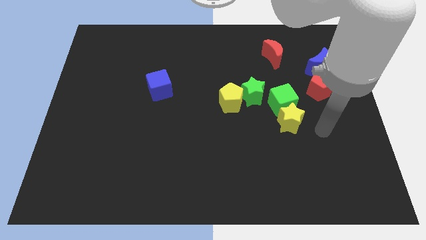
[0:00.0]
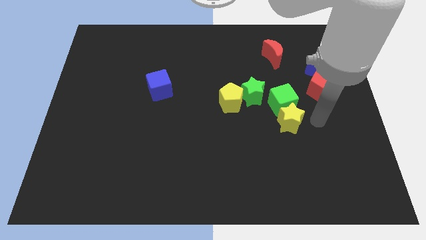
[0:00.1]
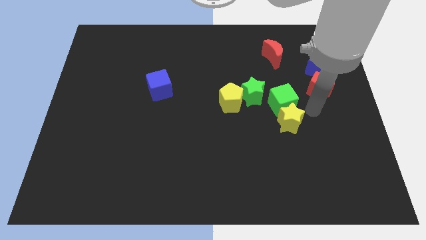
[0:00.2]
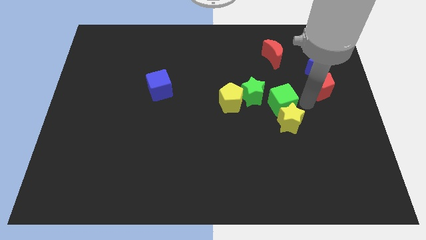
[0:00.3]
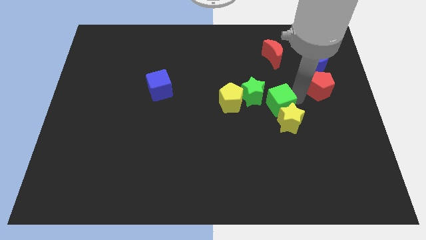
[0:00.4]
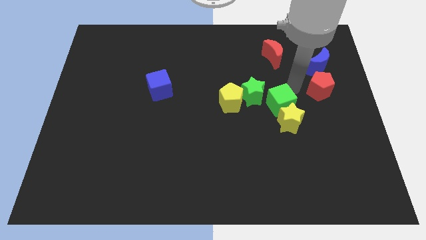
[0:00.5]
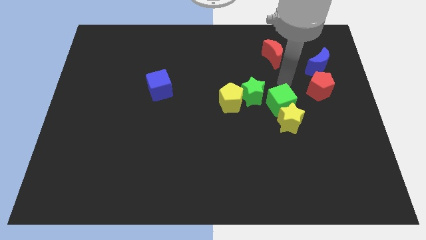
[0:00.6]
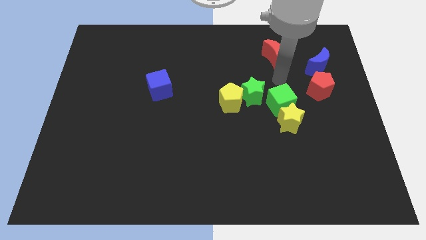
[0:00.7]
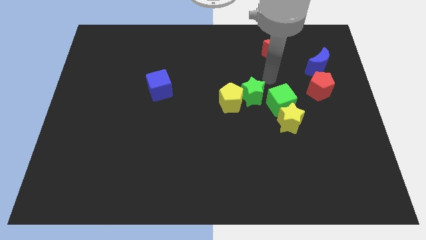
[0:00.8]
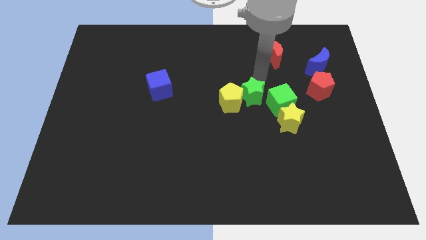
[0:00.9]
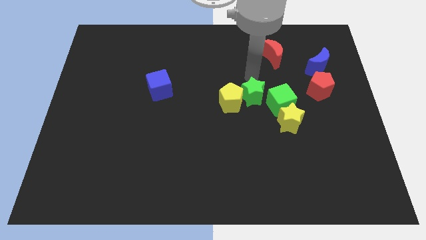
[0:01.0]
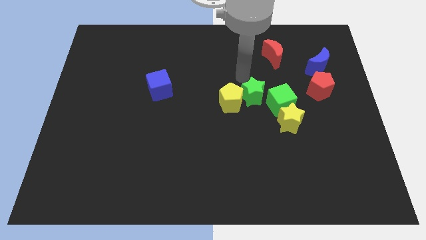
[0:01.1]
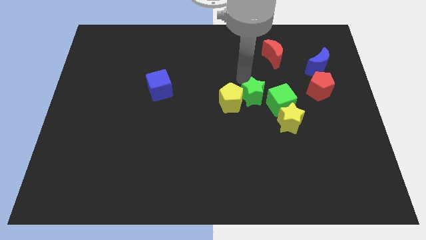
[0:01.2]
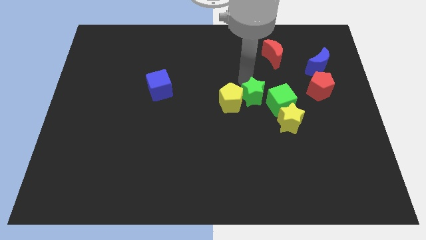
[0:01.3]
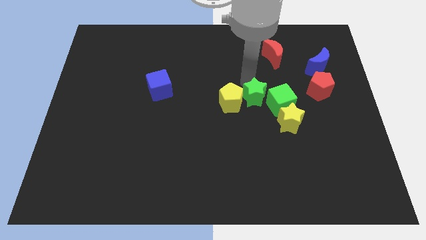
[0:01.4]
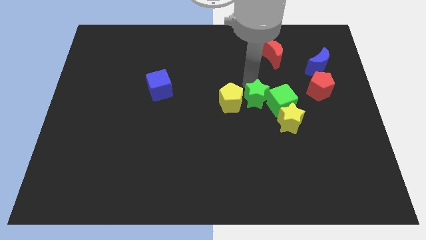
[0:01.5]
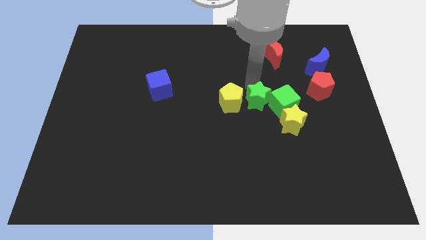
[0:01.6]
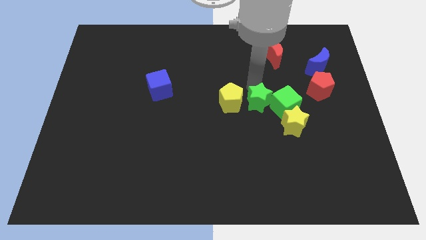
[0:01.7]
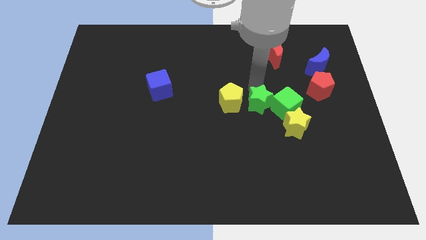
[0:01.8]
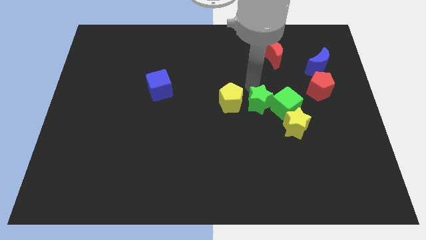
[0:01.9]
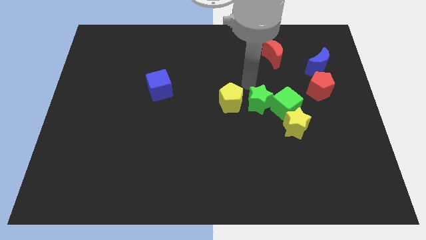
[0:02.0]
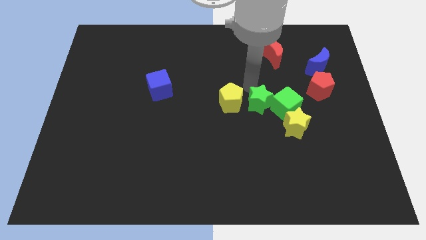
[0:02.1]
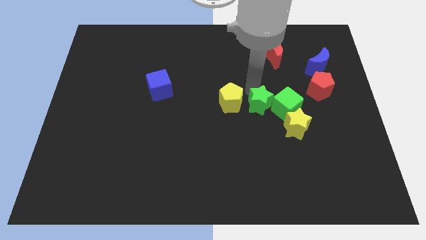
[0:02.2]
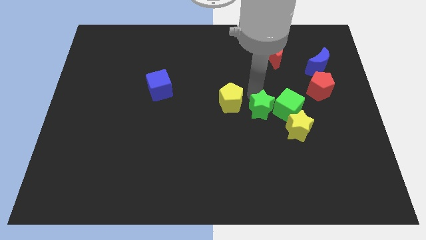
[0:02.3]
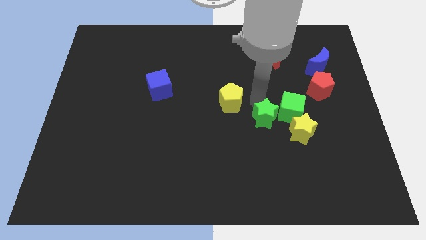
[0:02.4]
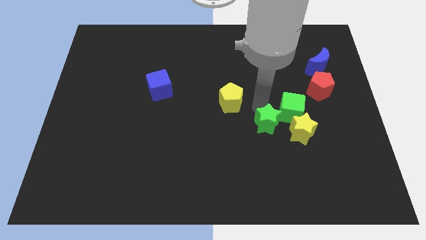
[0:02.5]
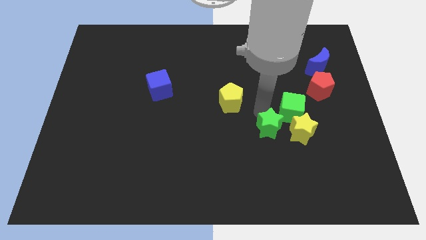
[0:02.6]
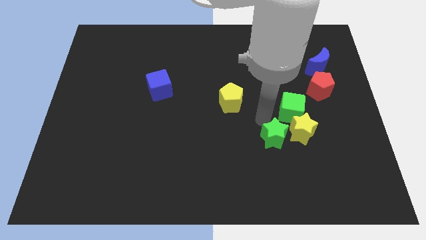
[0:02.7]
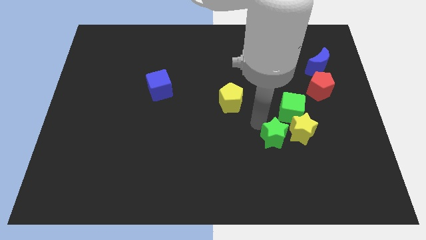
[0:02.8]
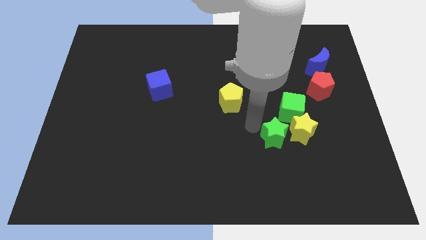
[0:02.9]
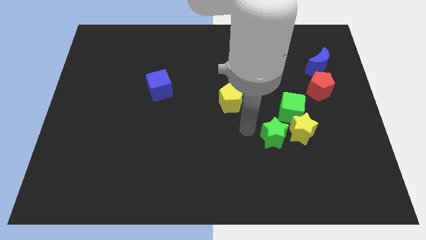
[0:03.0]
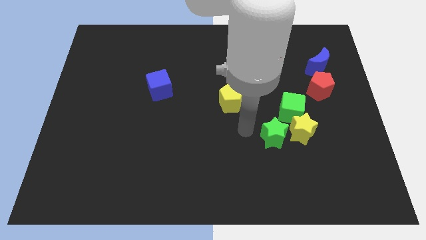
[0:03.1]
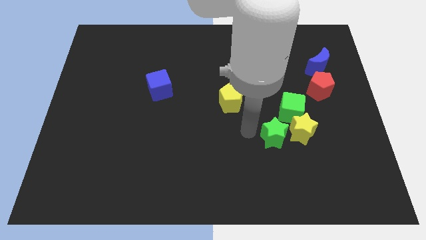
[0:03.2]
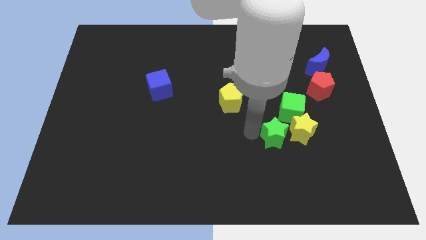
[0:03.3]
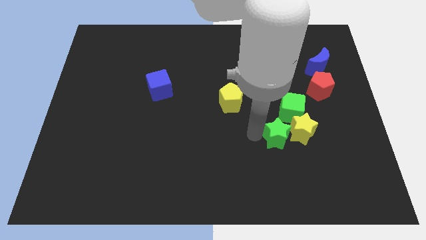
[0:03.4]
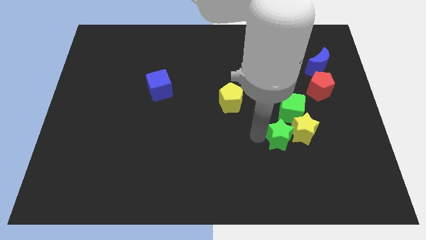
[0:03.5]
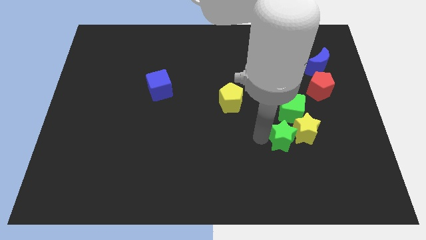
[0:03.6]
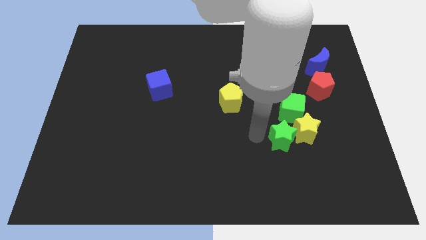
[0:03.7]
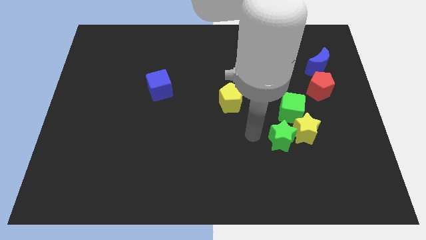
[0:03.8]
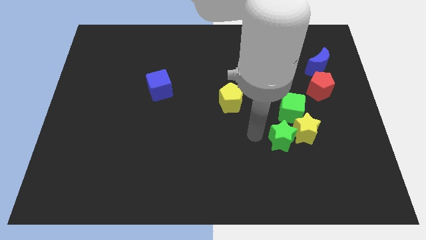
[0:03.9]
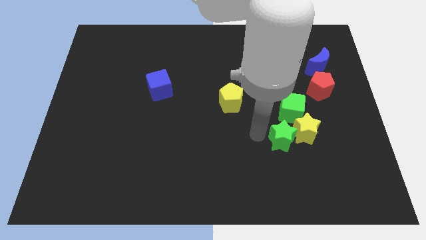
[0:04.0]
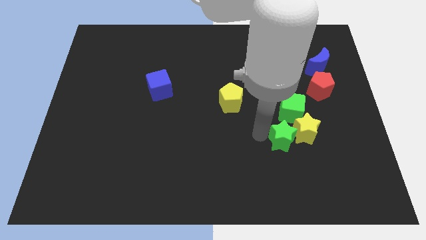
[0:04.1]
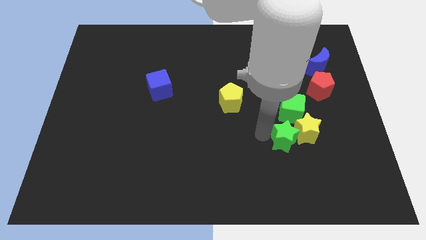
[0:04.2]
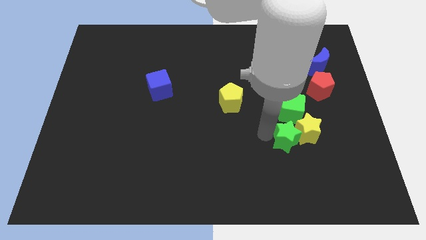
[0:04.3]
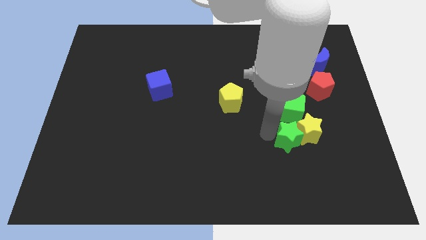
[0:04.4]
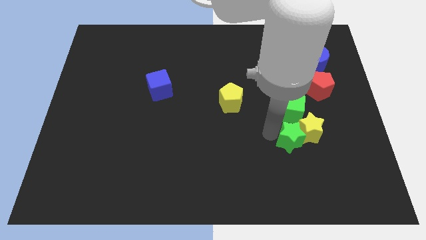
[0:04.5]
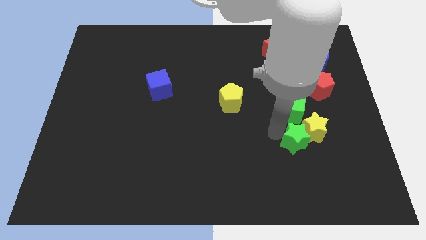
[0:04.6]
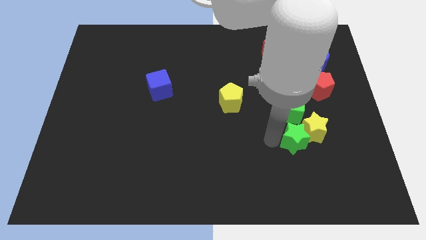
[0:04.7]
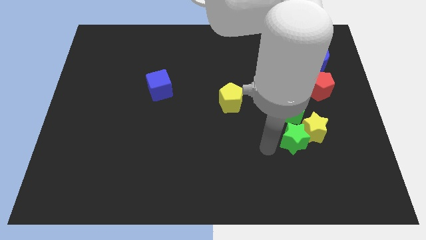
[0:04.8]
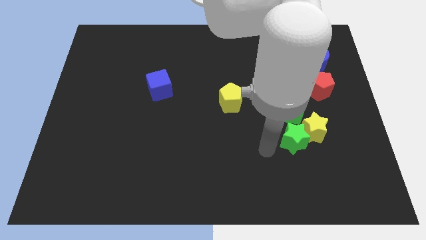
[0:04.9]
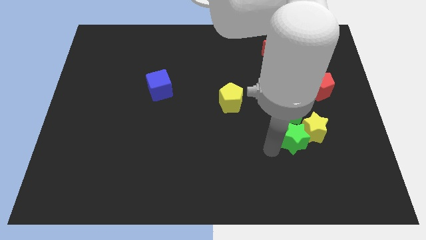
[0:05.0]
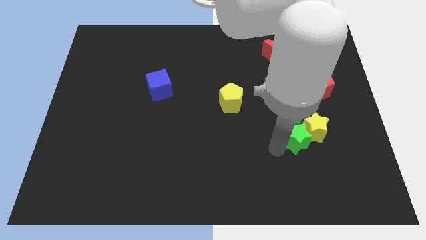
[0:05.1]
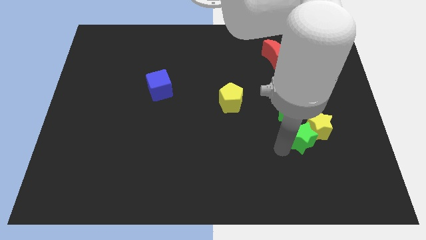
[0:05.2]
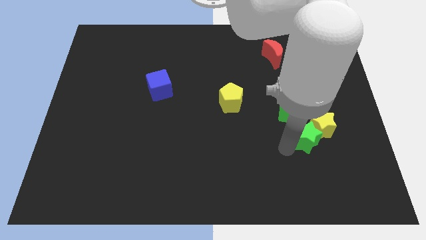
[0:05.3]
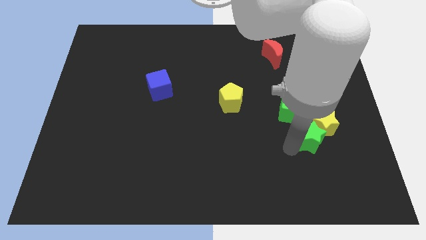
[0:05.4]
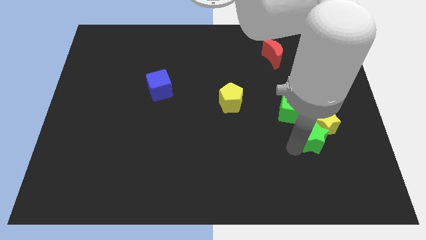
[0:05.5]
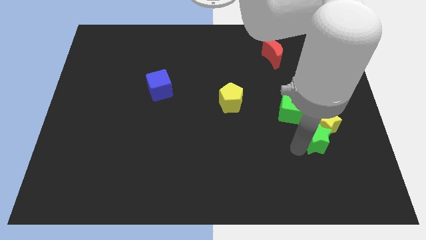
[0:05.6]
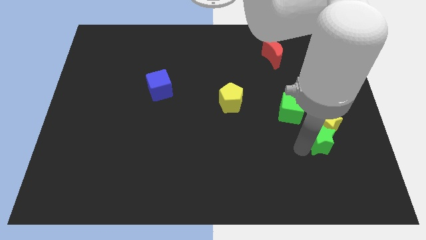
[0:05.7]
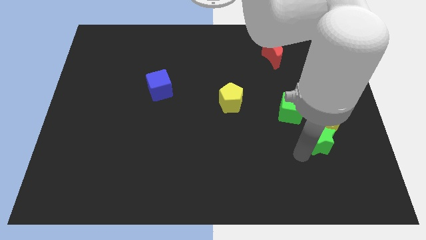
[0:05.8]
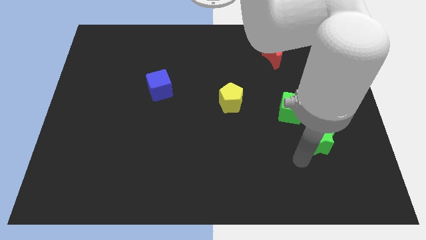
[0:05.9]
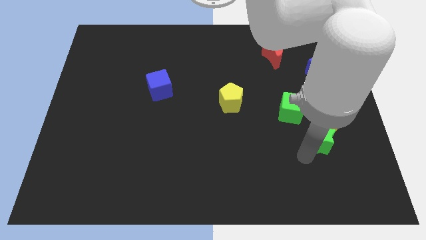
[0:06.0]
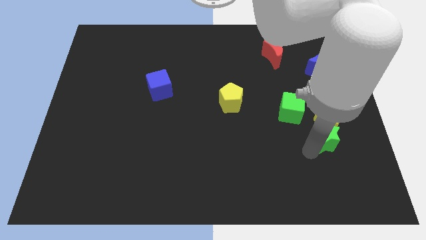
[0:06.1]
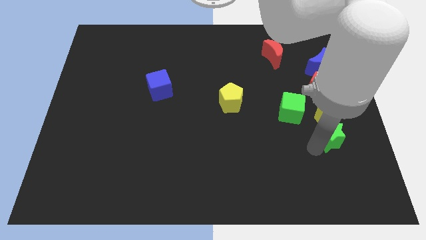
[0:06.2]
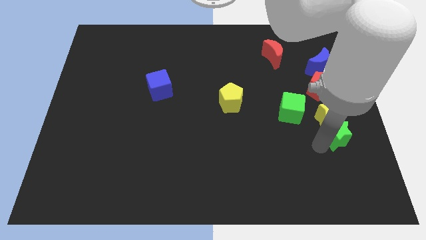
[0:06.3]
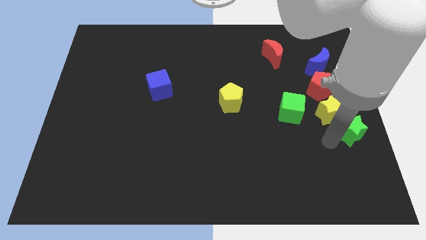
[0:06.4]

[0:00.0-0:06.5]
move the green star to the right side

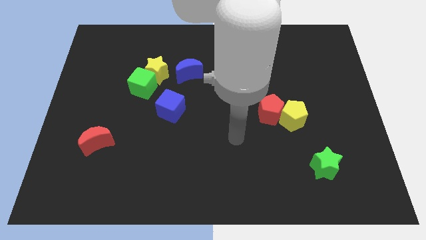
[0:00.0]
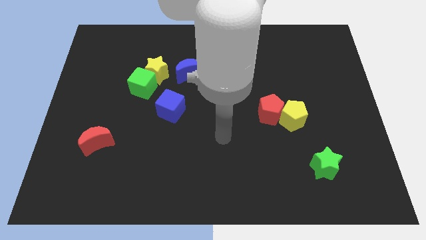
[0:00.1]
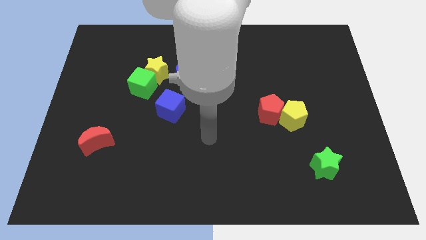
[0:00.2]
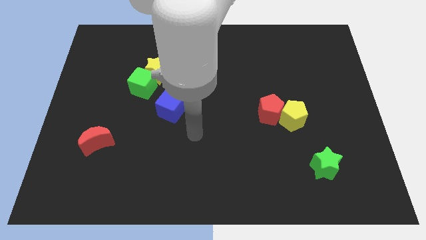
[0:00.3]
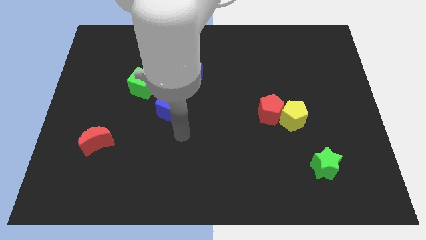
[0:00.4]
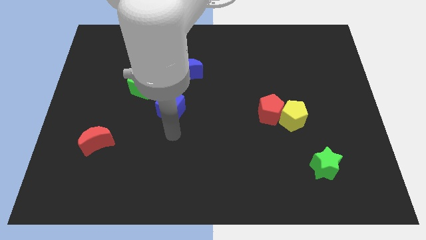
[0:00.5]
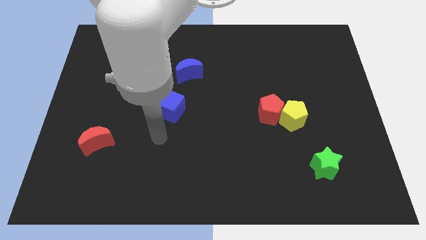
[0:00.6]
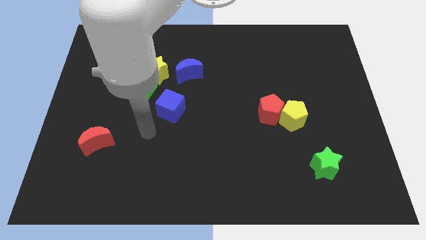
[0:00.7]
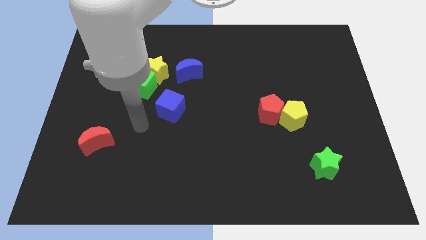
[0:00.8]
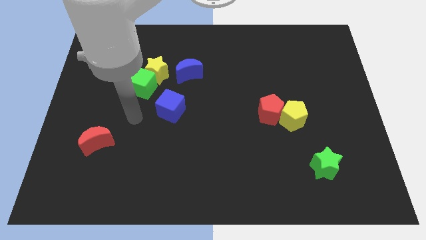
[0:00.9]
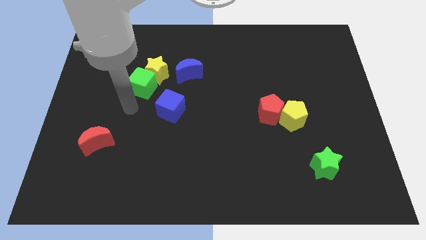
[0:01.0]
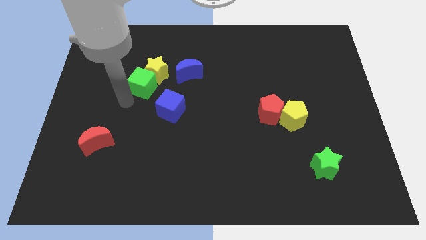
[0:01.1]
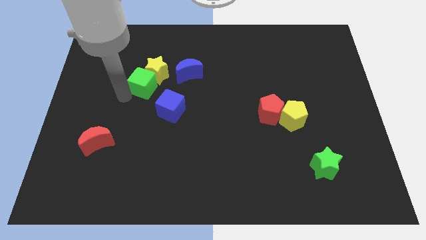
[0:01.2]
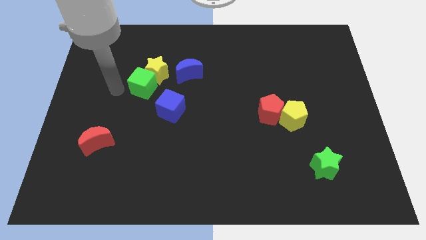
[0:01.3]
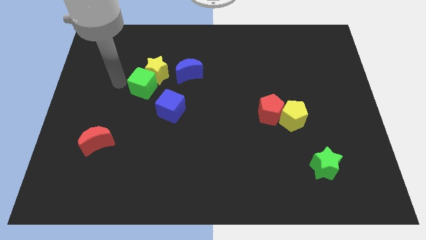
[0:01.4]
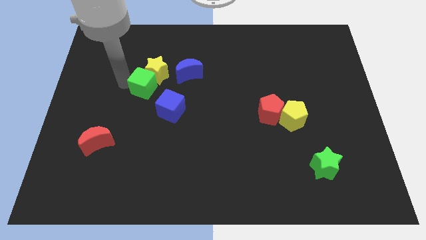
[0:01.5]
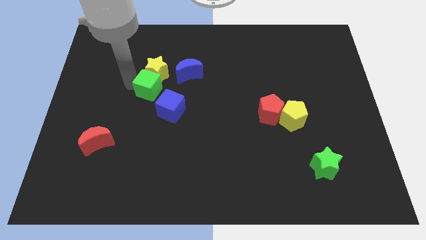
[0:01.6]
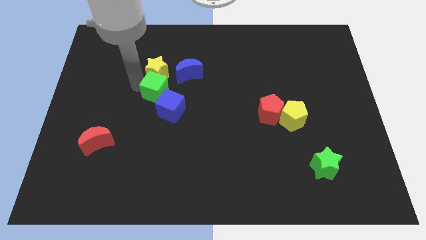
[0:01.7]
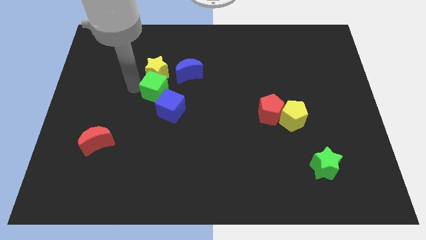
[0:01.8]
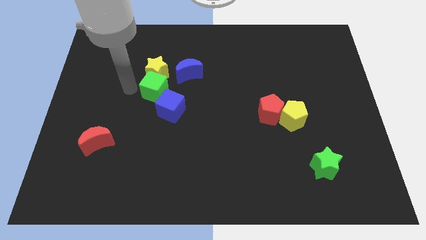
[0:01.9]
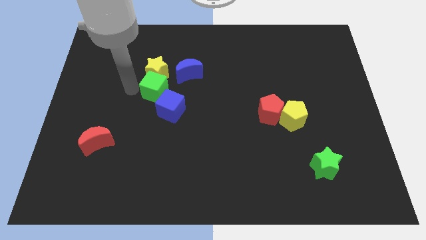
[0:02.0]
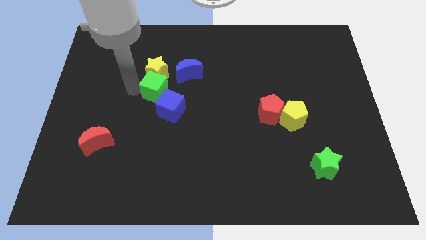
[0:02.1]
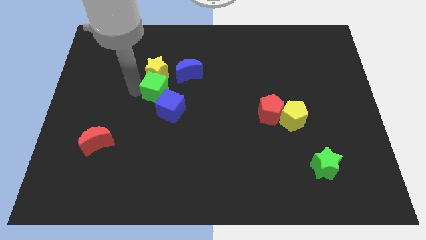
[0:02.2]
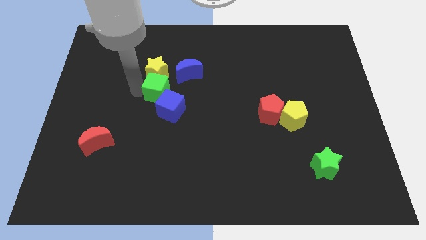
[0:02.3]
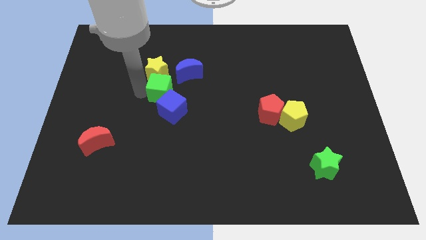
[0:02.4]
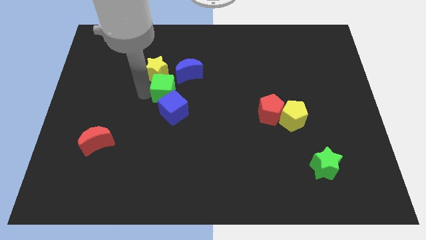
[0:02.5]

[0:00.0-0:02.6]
move the green cube to the middle
